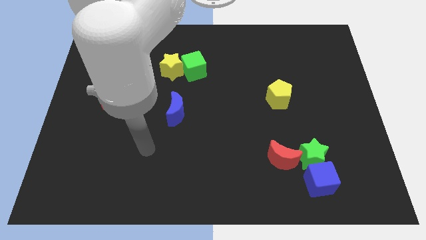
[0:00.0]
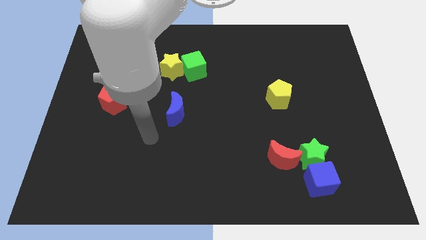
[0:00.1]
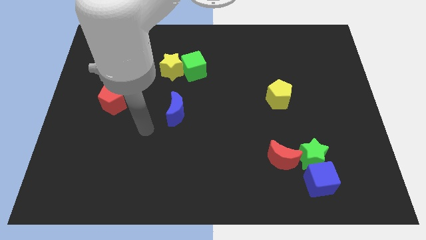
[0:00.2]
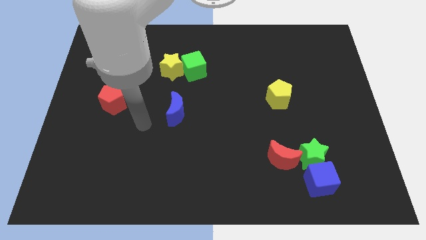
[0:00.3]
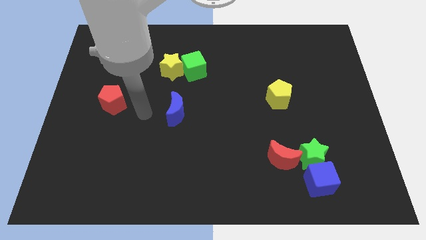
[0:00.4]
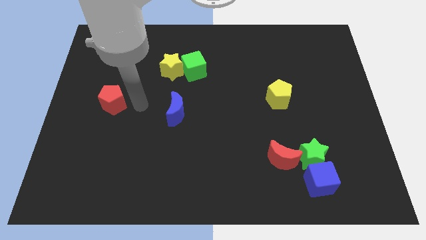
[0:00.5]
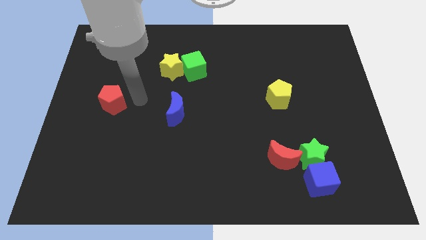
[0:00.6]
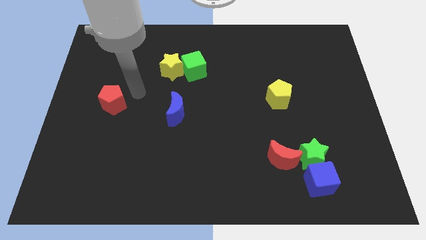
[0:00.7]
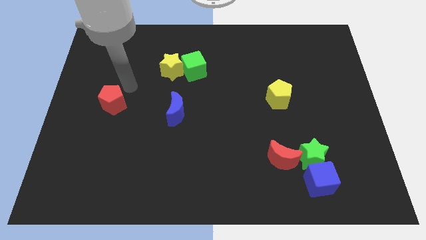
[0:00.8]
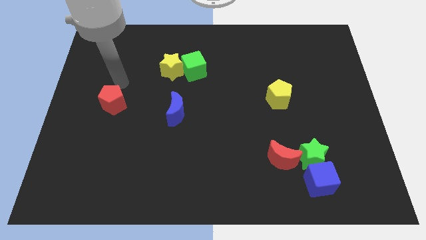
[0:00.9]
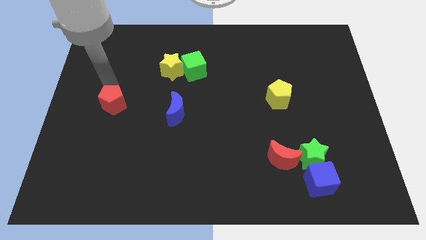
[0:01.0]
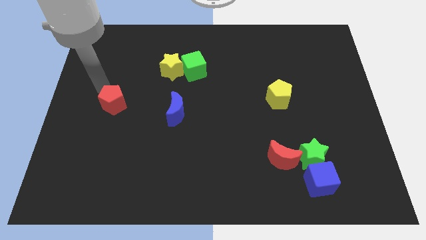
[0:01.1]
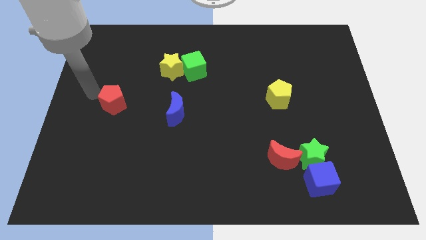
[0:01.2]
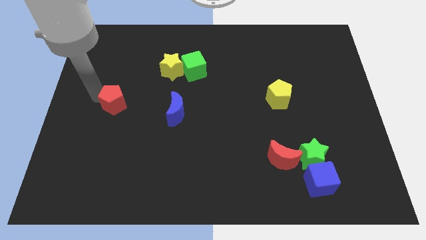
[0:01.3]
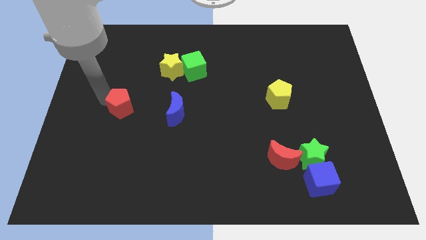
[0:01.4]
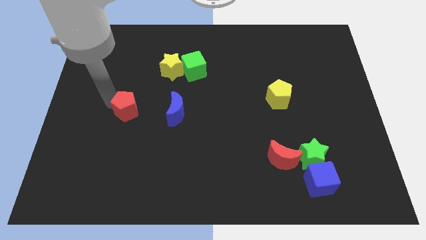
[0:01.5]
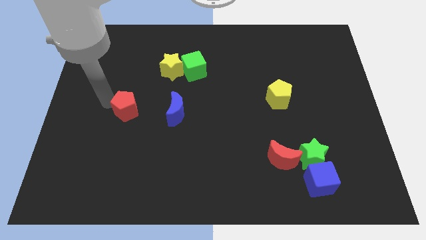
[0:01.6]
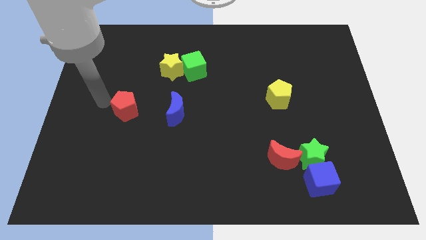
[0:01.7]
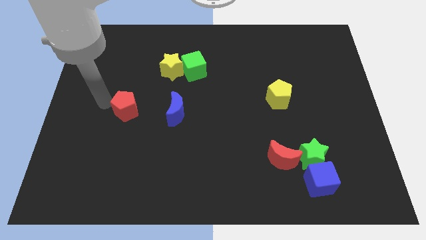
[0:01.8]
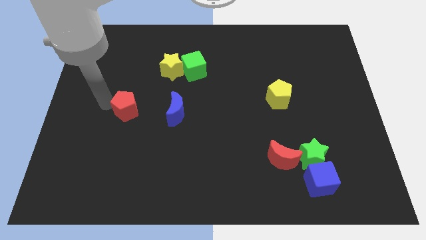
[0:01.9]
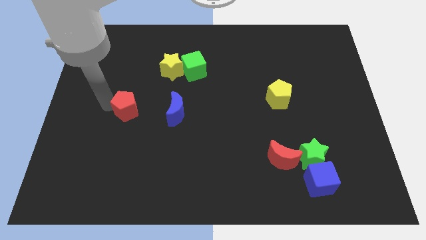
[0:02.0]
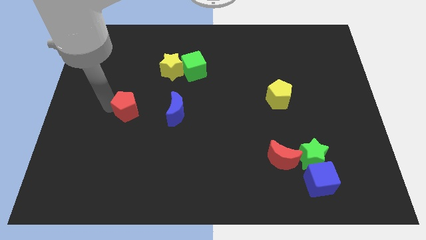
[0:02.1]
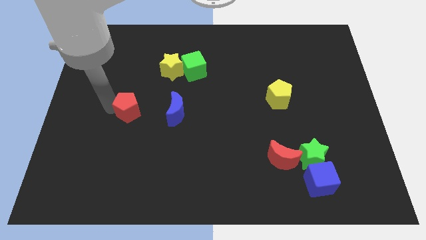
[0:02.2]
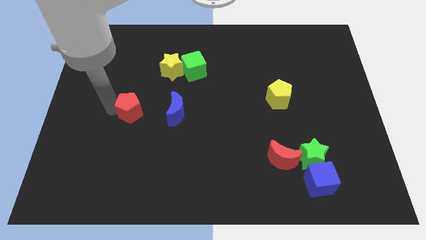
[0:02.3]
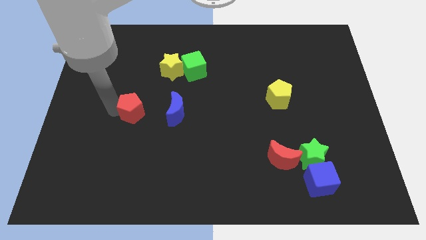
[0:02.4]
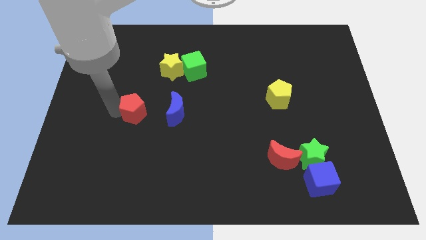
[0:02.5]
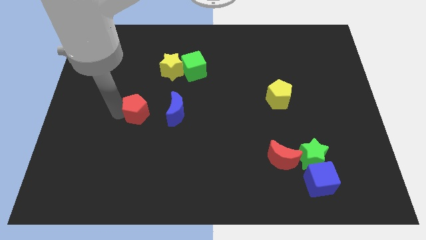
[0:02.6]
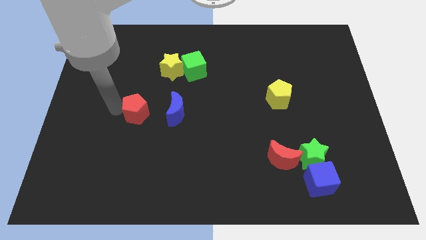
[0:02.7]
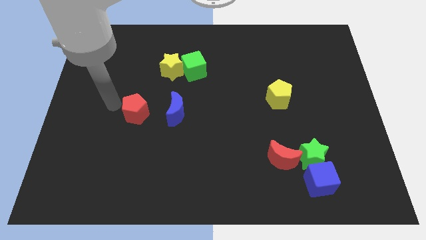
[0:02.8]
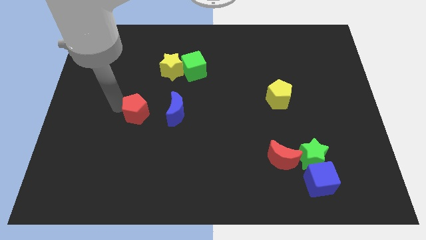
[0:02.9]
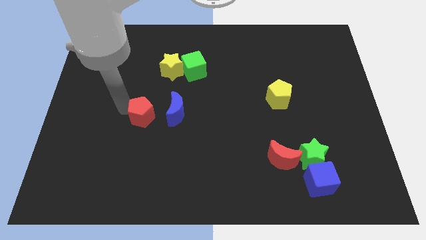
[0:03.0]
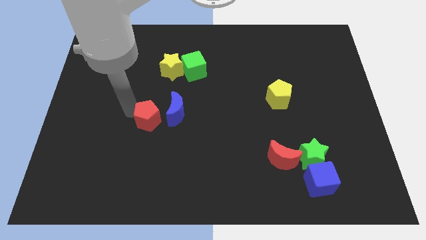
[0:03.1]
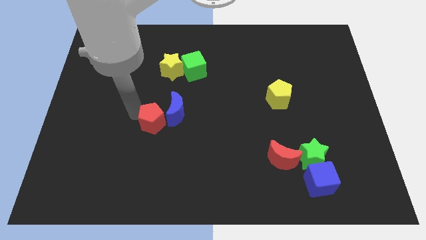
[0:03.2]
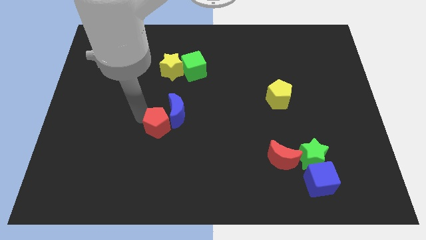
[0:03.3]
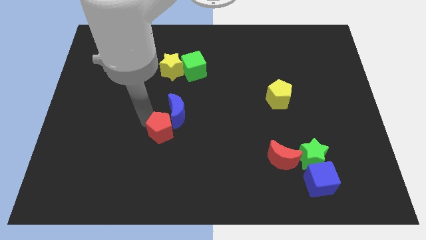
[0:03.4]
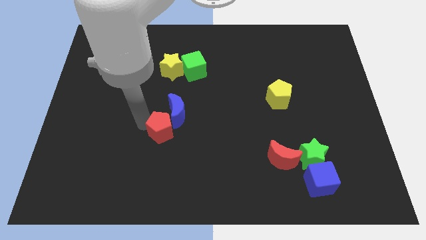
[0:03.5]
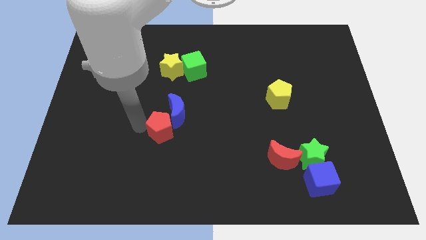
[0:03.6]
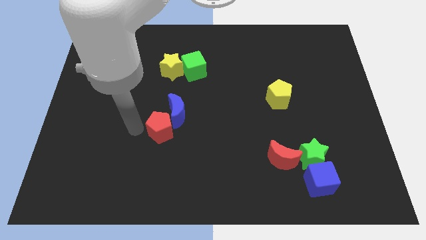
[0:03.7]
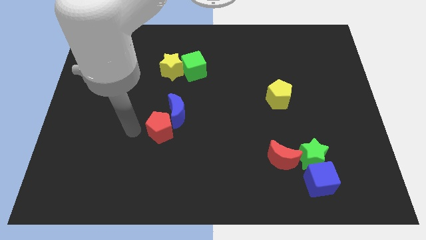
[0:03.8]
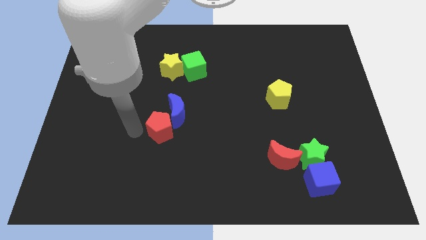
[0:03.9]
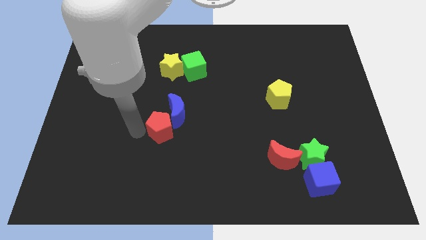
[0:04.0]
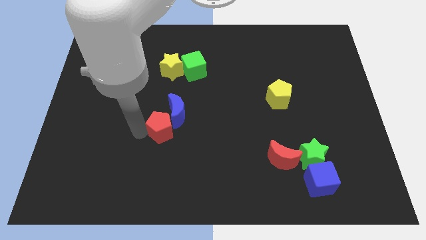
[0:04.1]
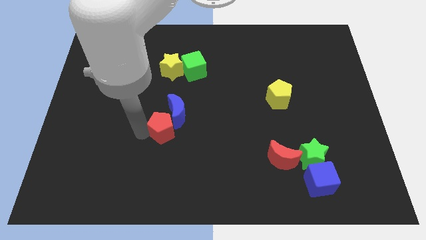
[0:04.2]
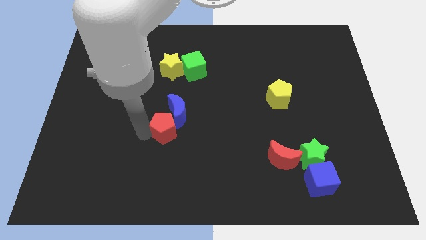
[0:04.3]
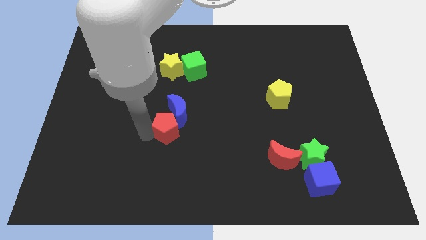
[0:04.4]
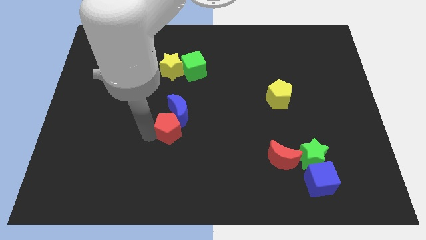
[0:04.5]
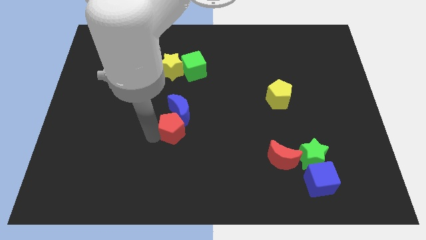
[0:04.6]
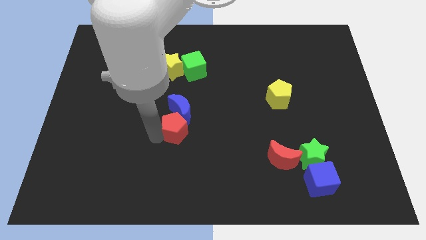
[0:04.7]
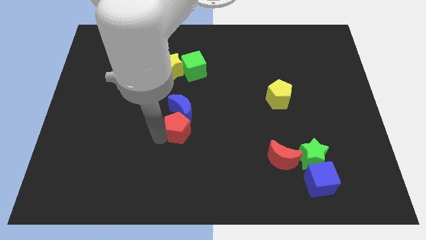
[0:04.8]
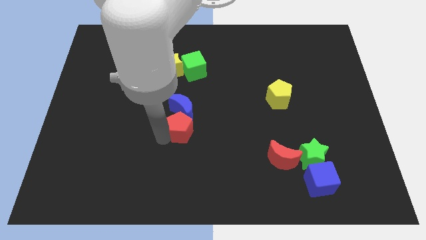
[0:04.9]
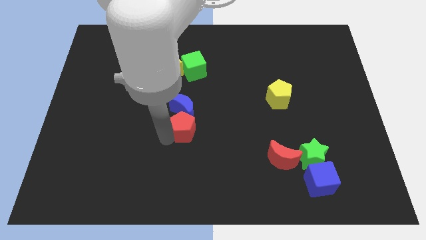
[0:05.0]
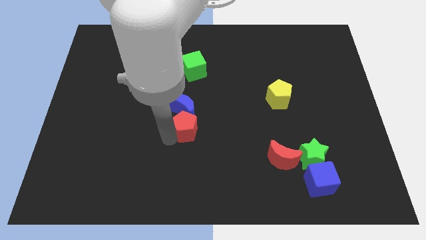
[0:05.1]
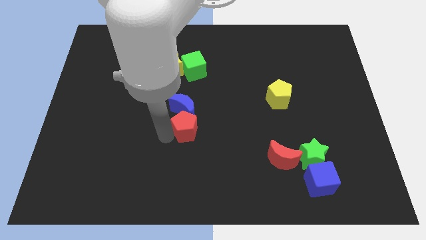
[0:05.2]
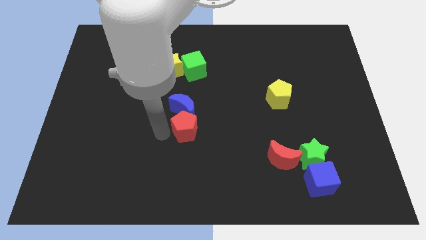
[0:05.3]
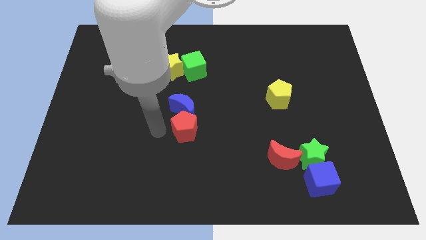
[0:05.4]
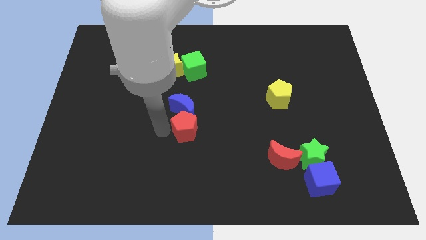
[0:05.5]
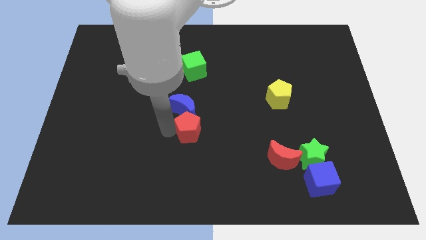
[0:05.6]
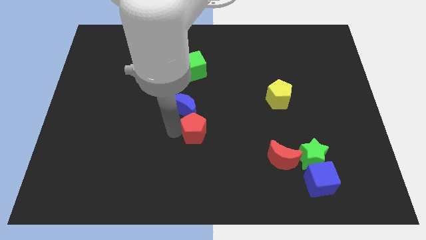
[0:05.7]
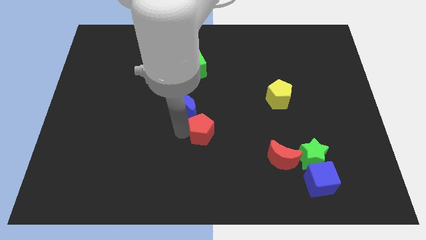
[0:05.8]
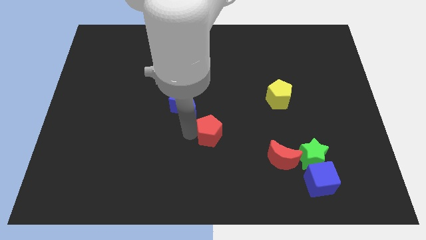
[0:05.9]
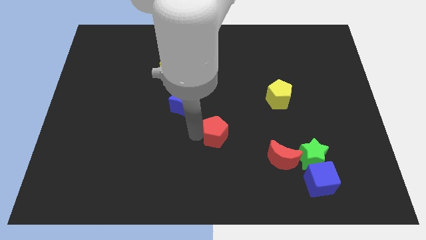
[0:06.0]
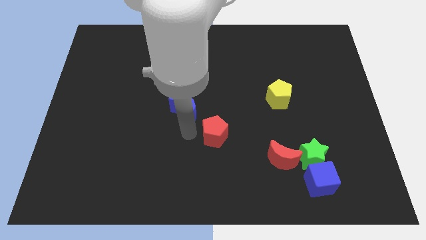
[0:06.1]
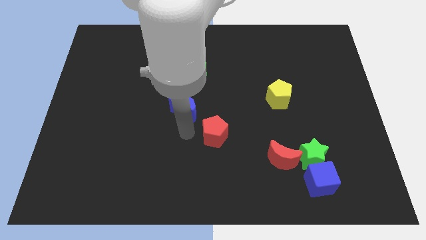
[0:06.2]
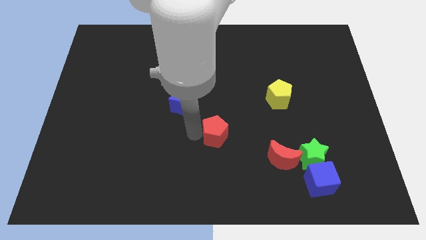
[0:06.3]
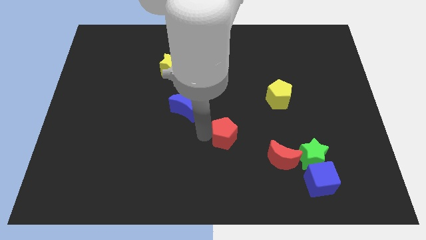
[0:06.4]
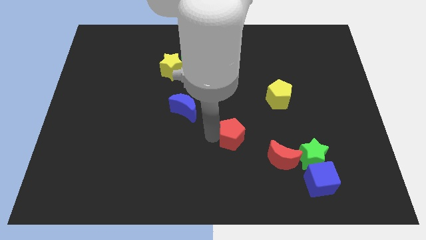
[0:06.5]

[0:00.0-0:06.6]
slide the red pentagon to the top left side of the red moon
